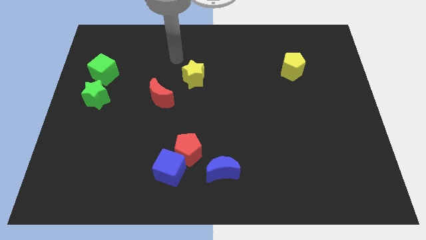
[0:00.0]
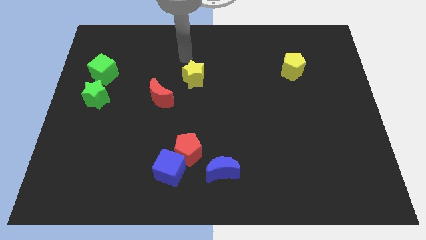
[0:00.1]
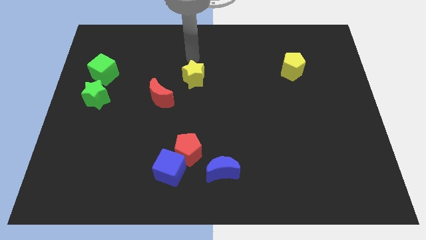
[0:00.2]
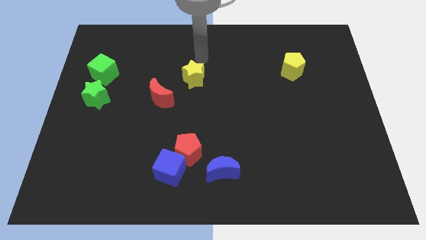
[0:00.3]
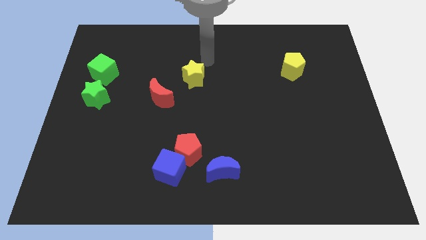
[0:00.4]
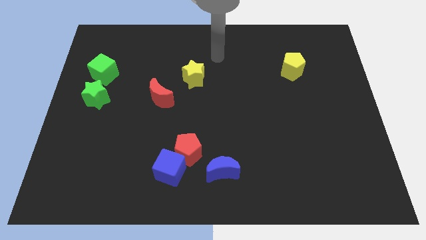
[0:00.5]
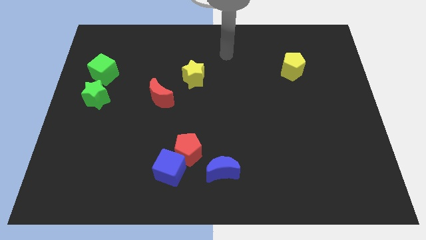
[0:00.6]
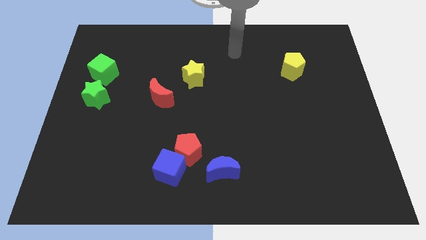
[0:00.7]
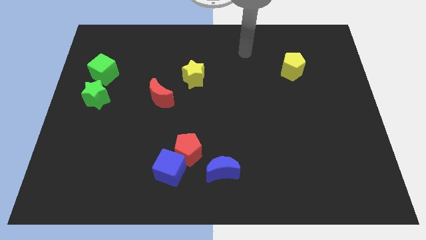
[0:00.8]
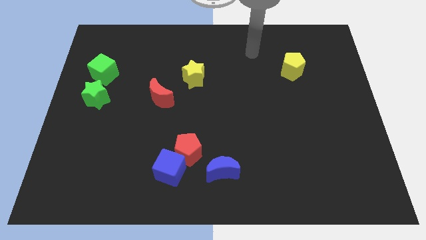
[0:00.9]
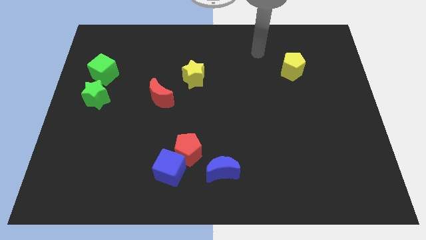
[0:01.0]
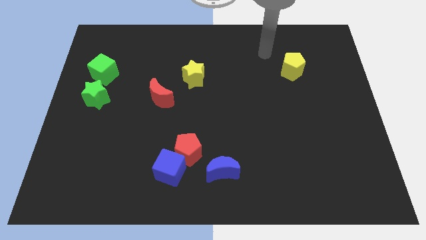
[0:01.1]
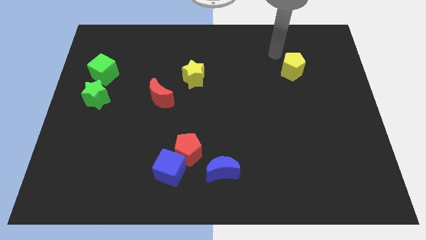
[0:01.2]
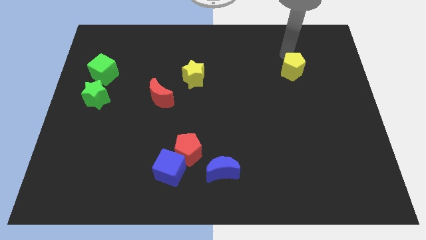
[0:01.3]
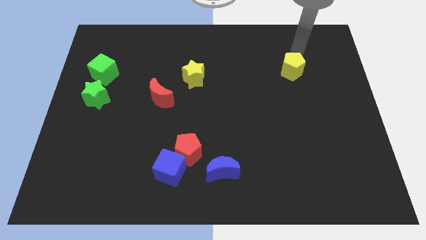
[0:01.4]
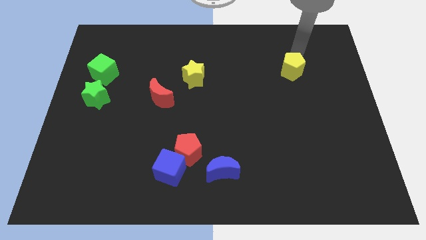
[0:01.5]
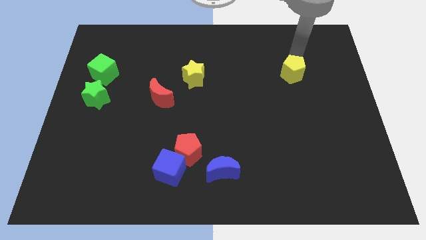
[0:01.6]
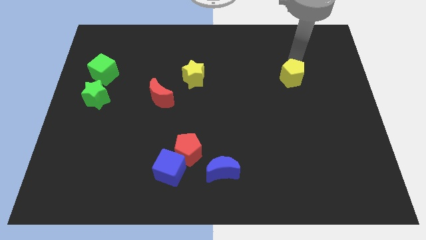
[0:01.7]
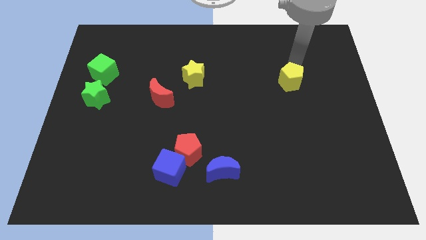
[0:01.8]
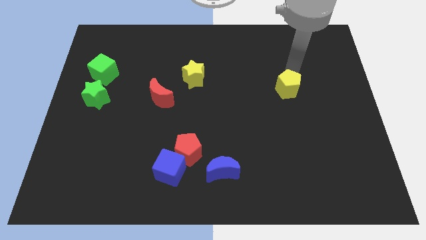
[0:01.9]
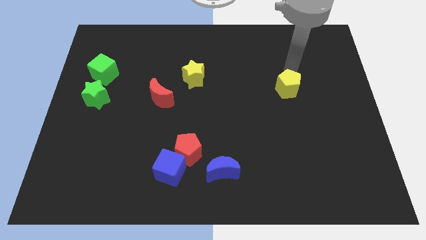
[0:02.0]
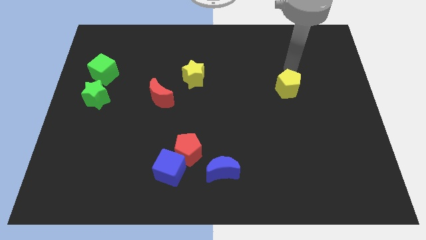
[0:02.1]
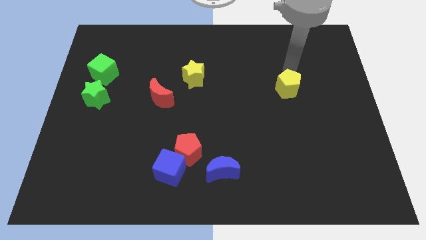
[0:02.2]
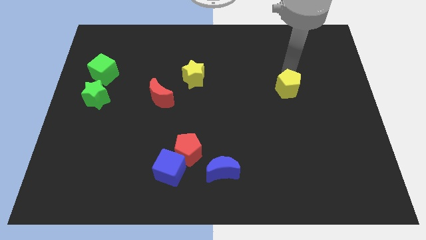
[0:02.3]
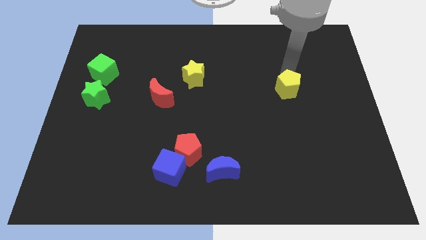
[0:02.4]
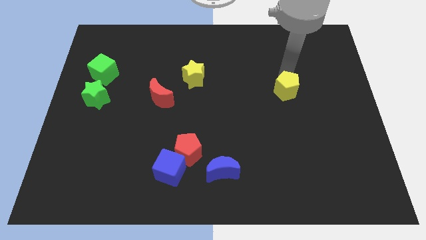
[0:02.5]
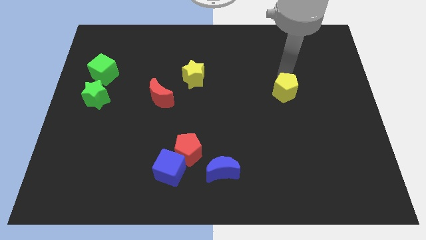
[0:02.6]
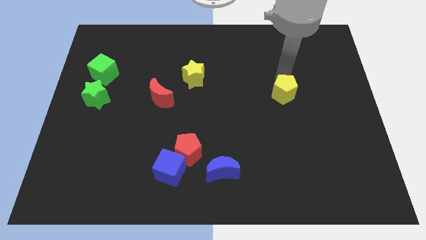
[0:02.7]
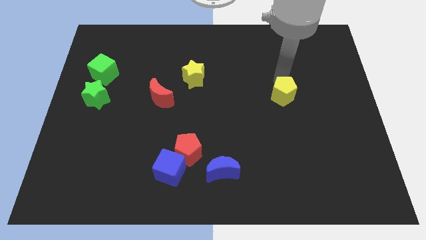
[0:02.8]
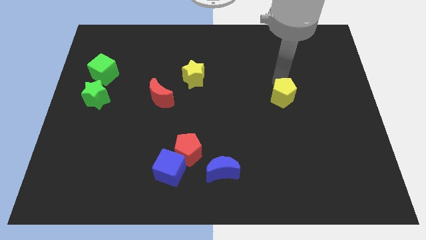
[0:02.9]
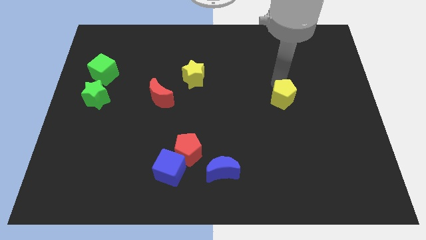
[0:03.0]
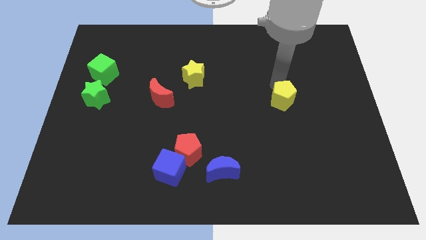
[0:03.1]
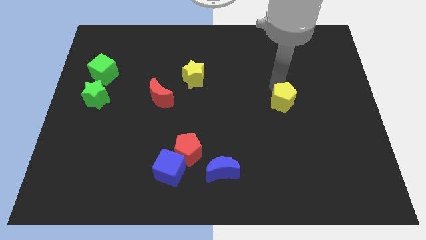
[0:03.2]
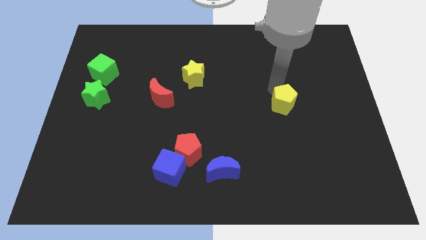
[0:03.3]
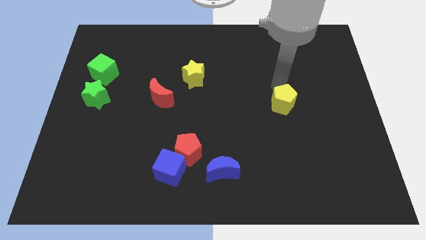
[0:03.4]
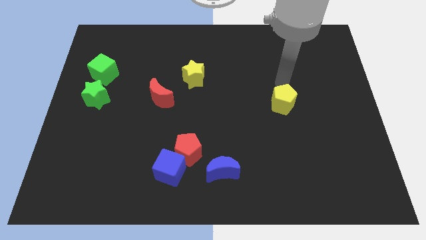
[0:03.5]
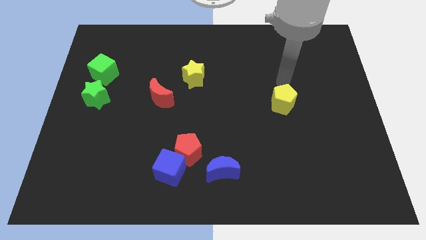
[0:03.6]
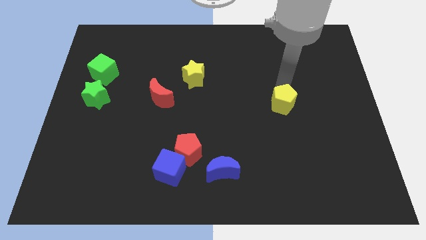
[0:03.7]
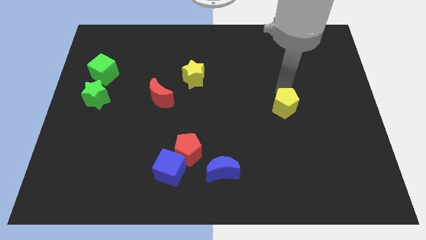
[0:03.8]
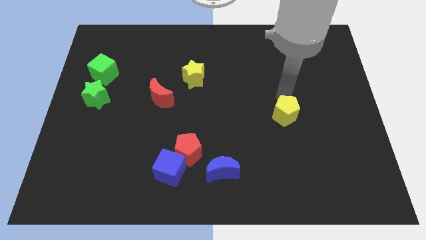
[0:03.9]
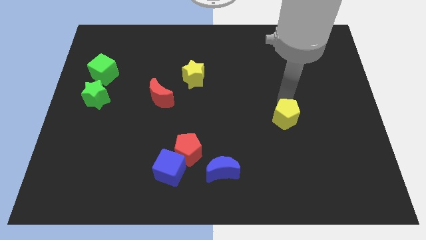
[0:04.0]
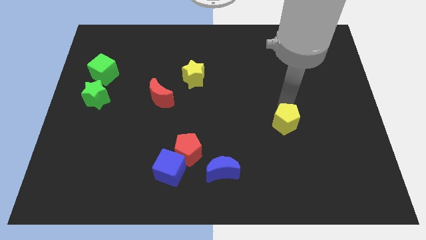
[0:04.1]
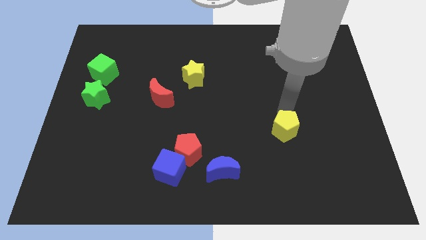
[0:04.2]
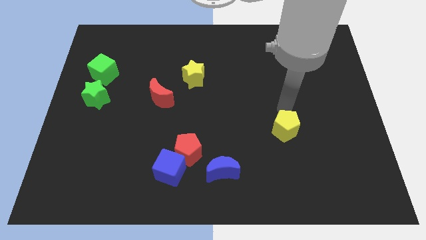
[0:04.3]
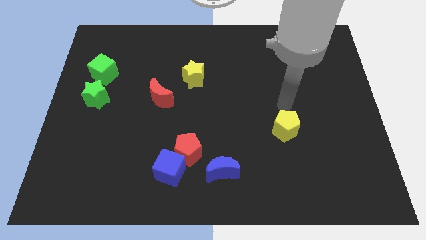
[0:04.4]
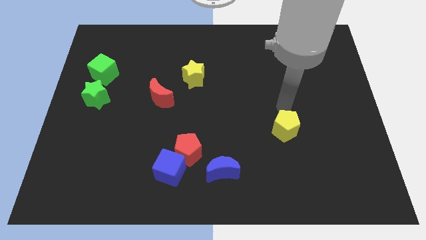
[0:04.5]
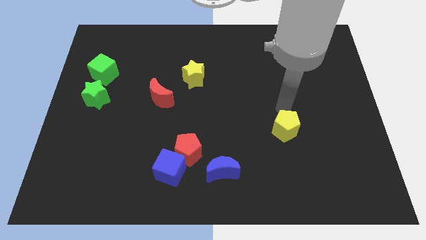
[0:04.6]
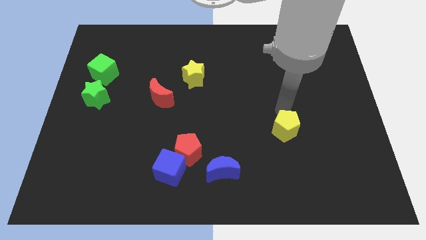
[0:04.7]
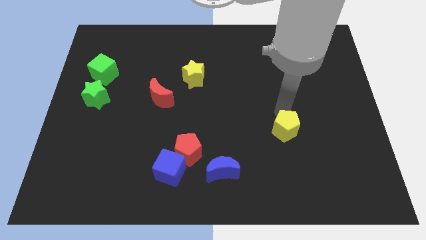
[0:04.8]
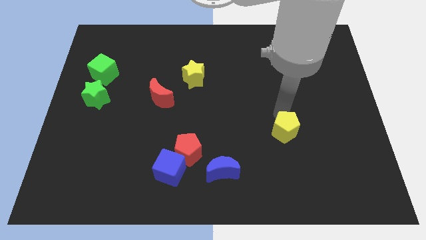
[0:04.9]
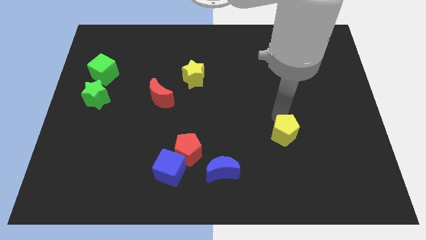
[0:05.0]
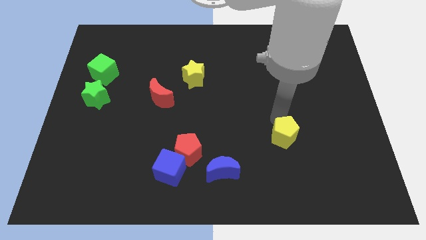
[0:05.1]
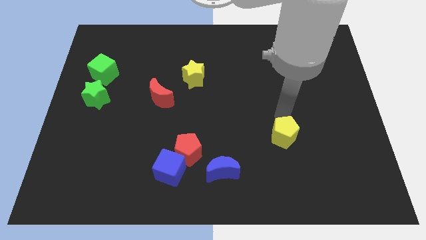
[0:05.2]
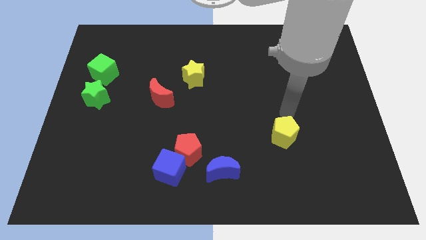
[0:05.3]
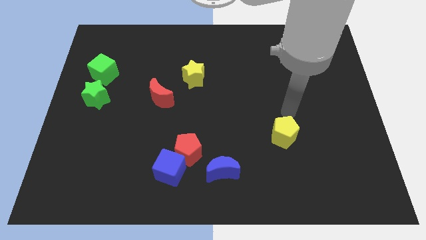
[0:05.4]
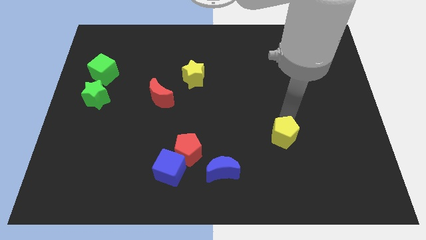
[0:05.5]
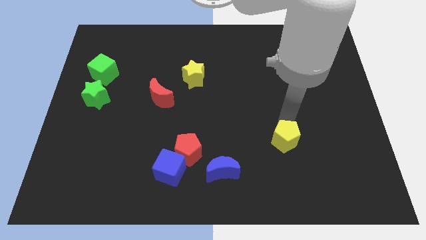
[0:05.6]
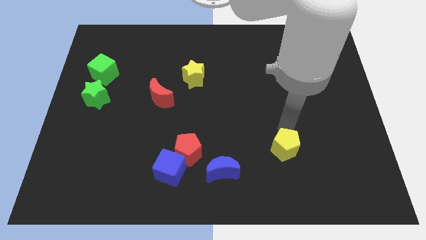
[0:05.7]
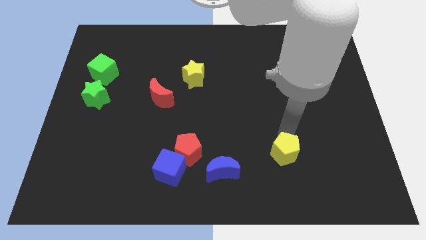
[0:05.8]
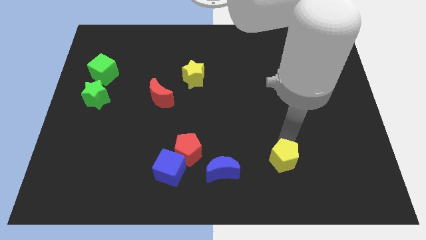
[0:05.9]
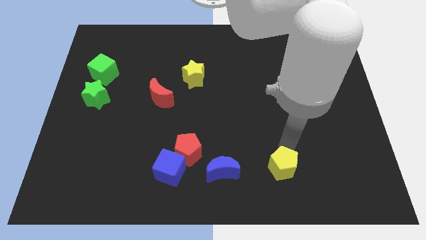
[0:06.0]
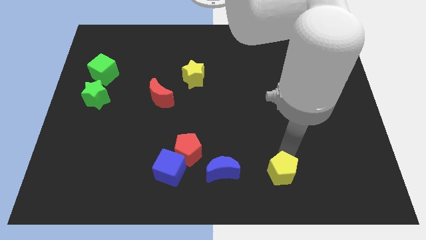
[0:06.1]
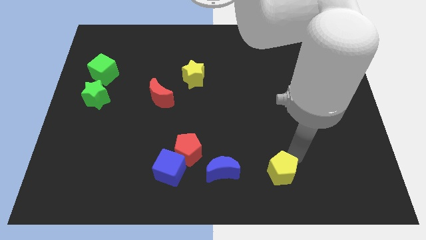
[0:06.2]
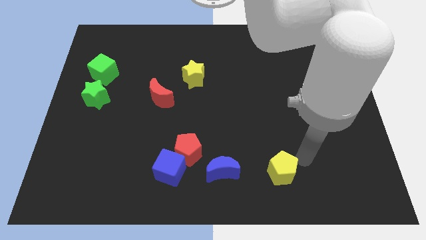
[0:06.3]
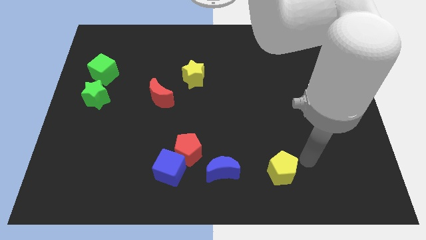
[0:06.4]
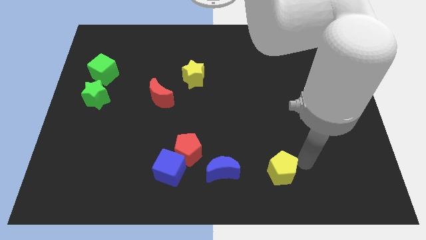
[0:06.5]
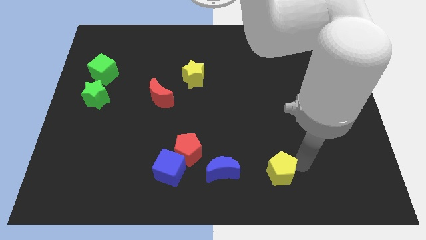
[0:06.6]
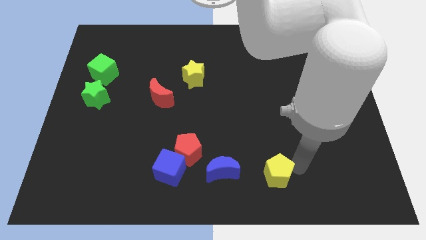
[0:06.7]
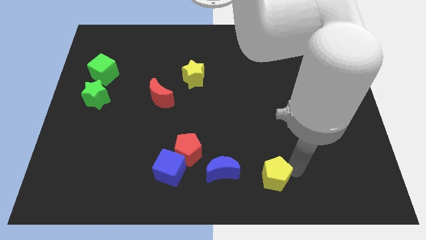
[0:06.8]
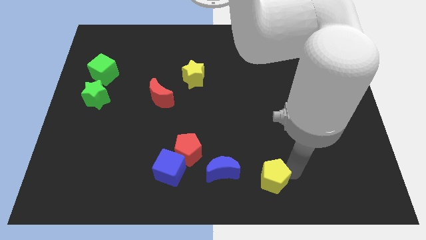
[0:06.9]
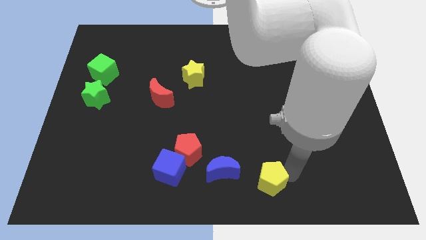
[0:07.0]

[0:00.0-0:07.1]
slide the yellow pentagon to the bottom side
